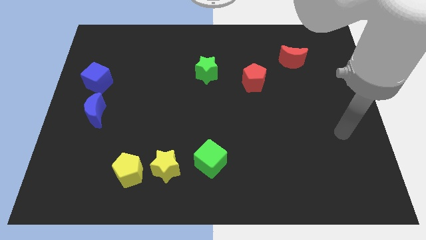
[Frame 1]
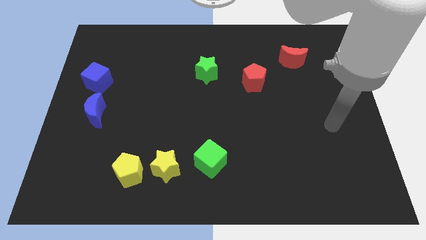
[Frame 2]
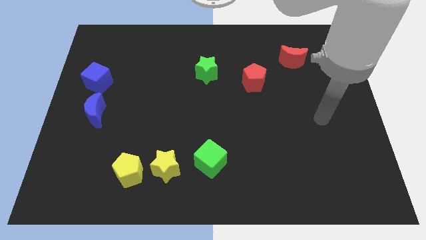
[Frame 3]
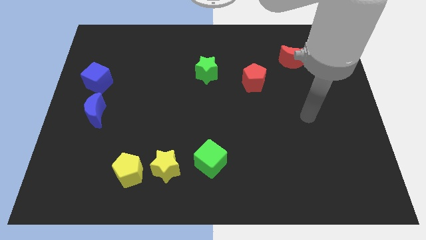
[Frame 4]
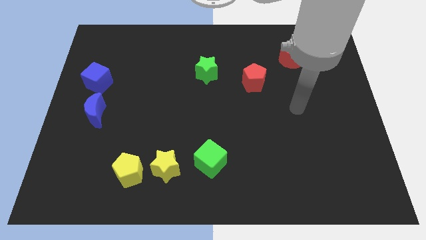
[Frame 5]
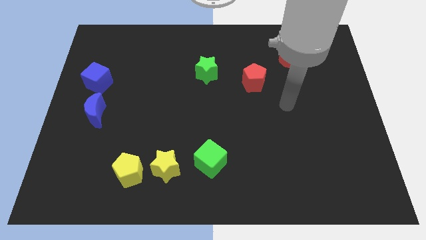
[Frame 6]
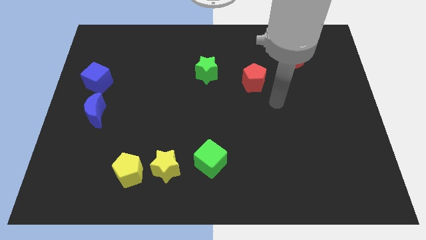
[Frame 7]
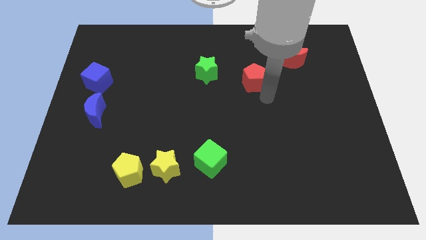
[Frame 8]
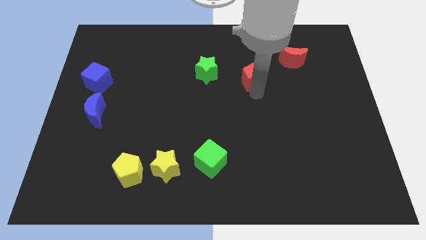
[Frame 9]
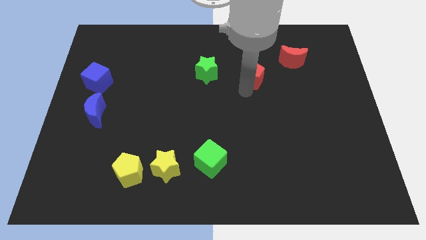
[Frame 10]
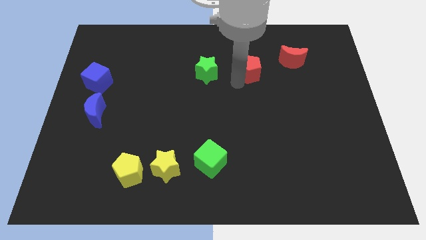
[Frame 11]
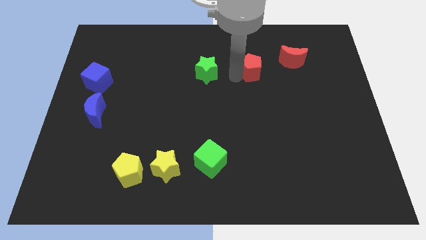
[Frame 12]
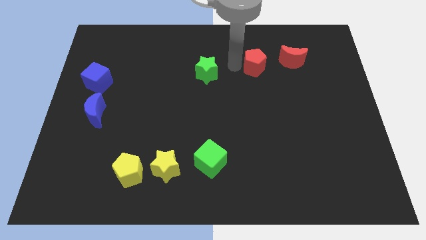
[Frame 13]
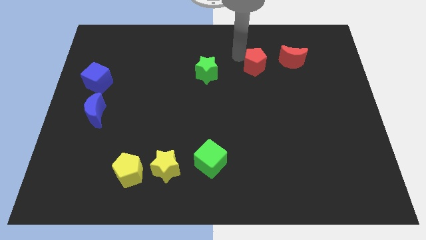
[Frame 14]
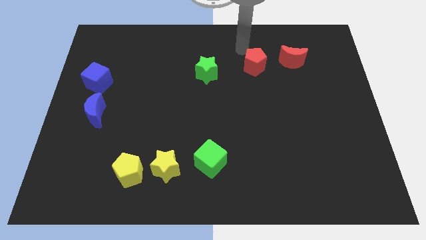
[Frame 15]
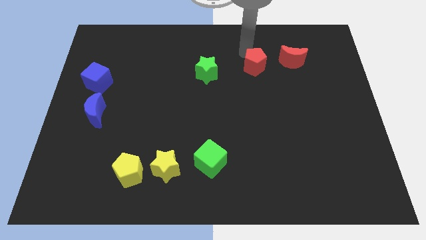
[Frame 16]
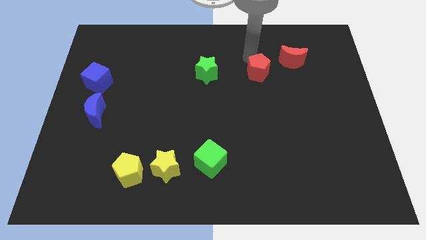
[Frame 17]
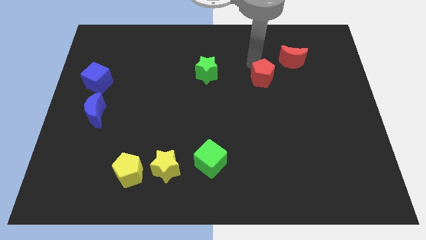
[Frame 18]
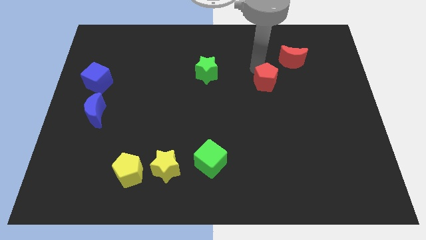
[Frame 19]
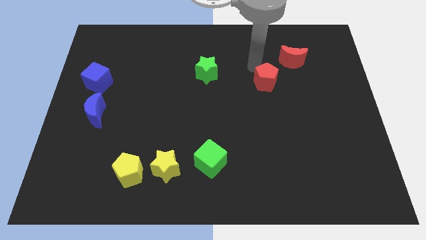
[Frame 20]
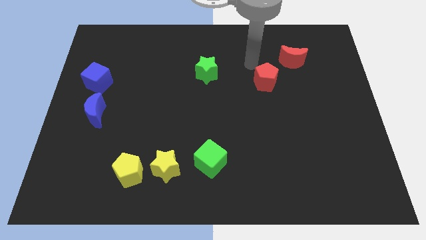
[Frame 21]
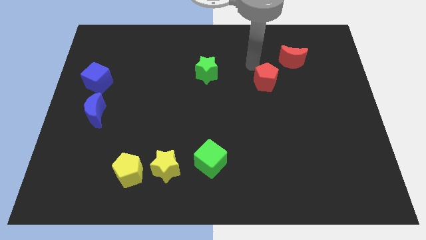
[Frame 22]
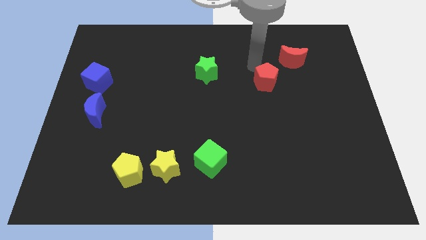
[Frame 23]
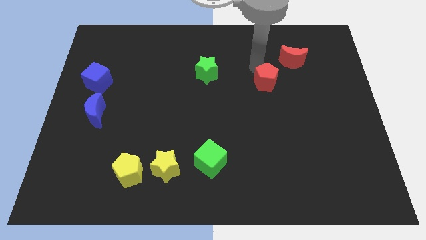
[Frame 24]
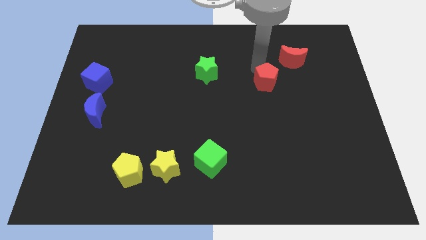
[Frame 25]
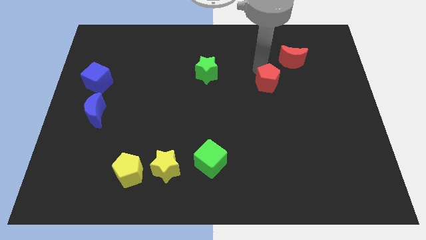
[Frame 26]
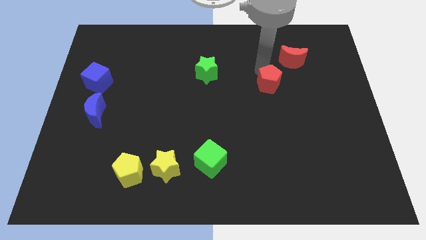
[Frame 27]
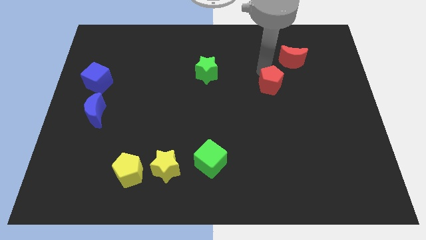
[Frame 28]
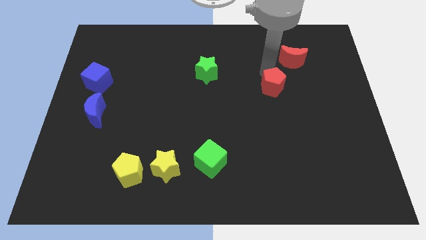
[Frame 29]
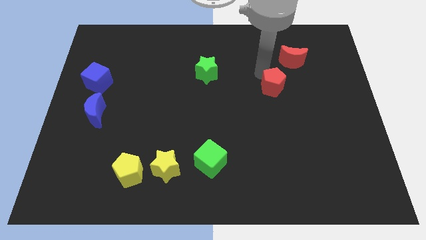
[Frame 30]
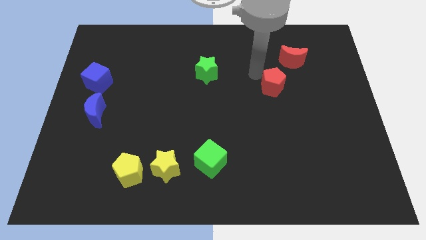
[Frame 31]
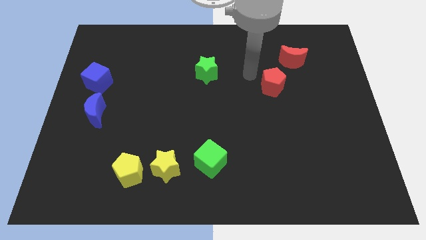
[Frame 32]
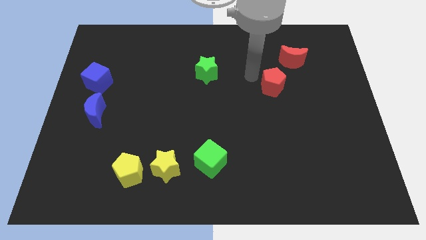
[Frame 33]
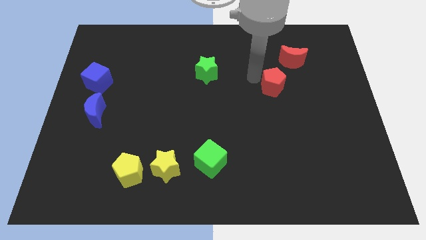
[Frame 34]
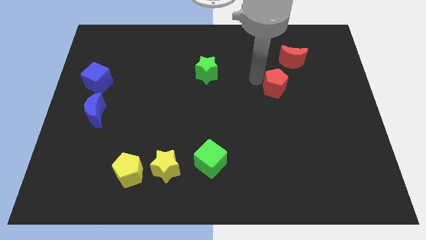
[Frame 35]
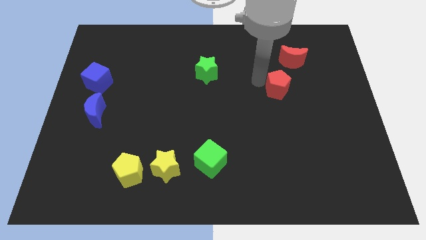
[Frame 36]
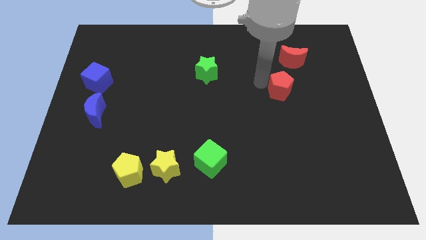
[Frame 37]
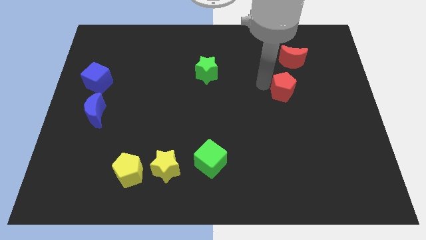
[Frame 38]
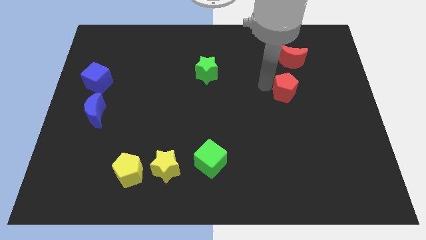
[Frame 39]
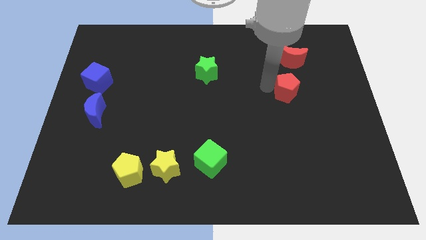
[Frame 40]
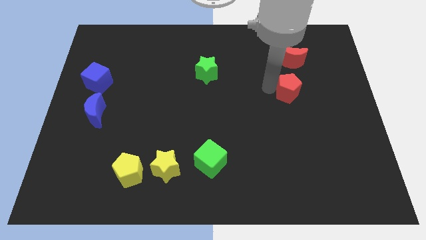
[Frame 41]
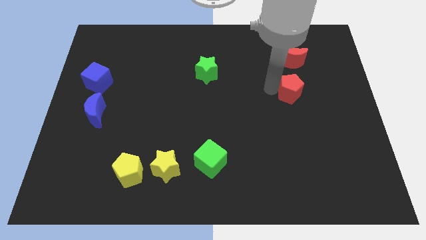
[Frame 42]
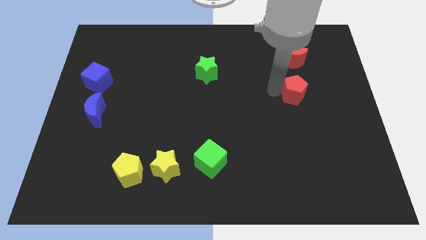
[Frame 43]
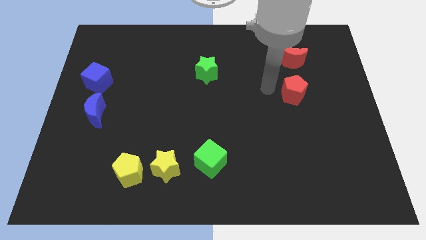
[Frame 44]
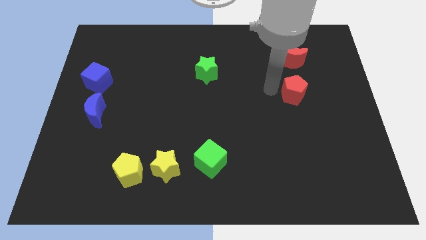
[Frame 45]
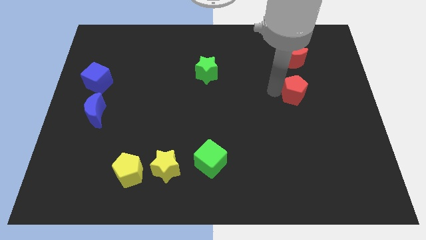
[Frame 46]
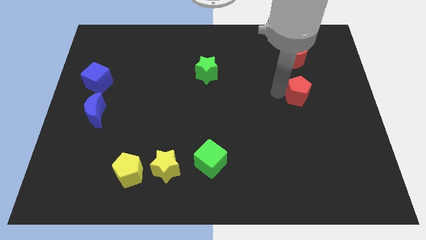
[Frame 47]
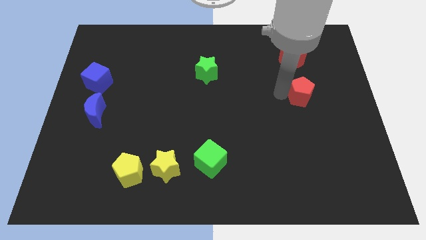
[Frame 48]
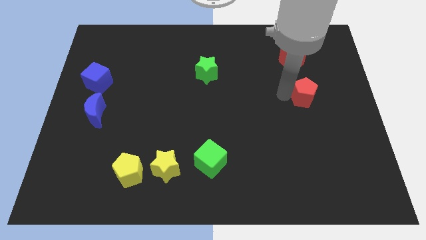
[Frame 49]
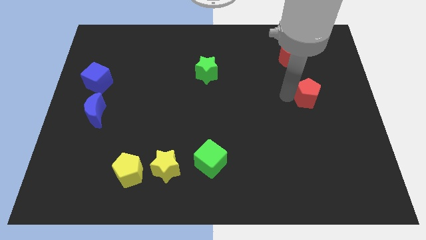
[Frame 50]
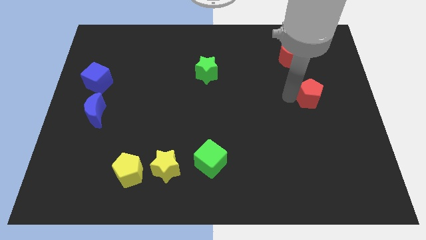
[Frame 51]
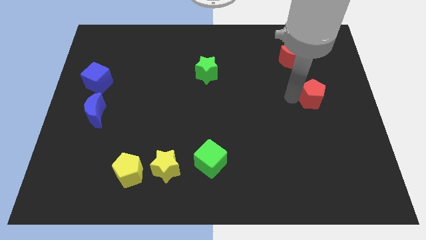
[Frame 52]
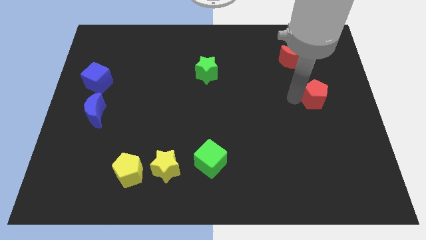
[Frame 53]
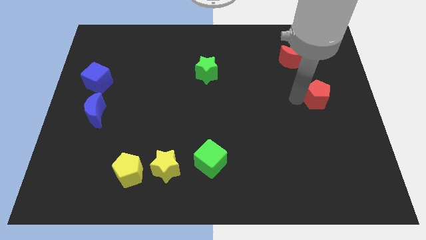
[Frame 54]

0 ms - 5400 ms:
slide the red pentagon to the center right

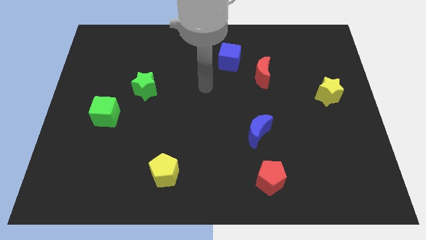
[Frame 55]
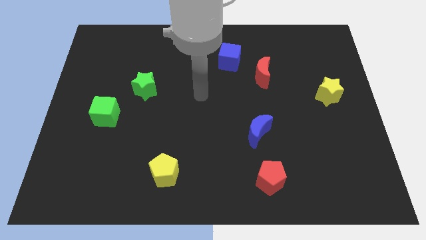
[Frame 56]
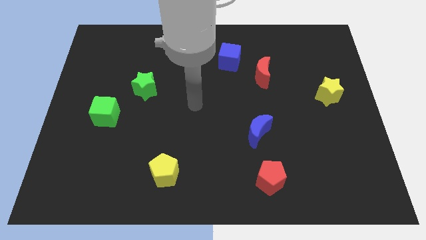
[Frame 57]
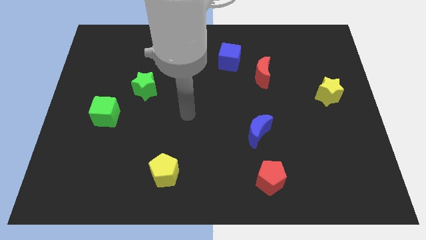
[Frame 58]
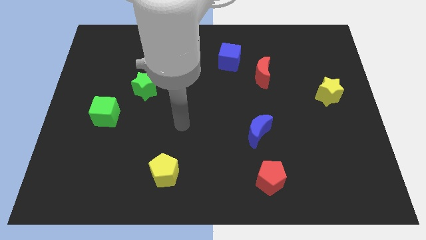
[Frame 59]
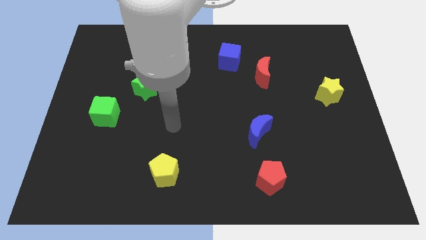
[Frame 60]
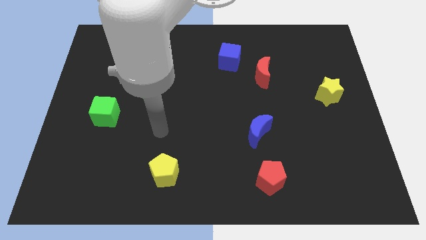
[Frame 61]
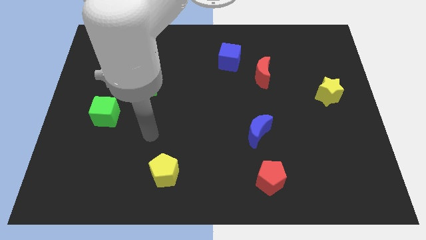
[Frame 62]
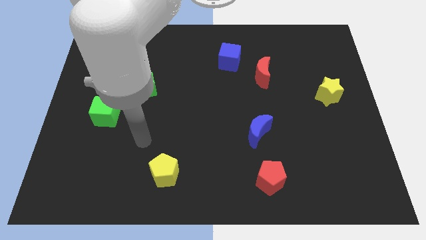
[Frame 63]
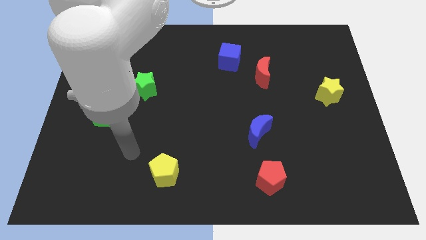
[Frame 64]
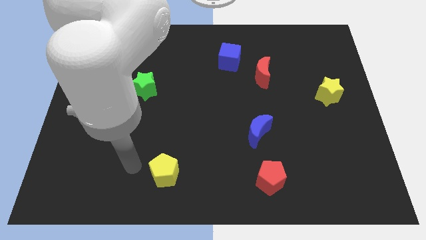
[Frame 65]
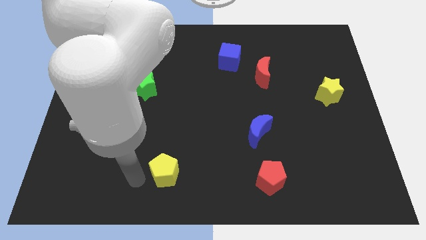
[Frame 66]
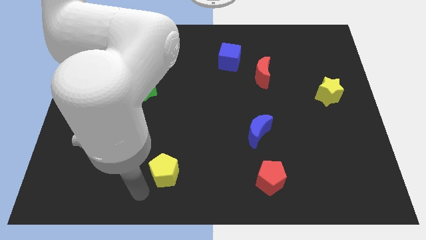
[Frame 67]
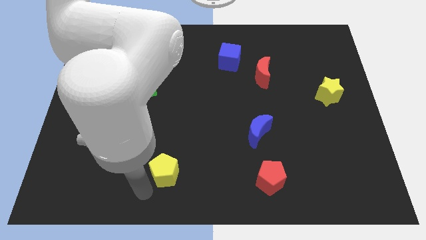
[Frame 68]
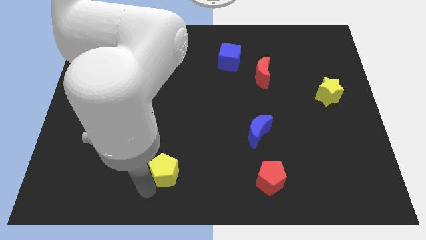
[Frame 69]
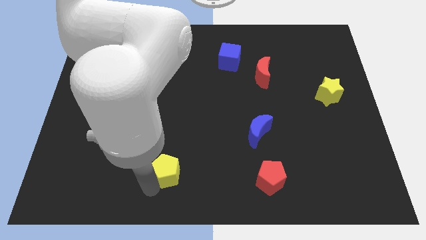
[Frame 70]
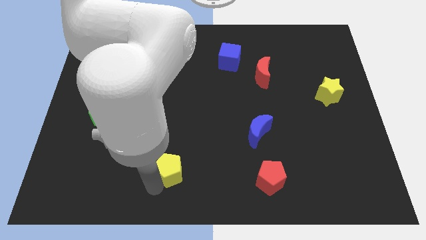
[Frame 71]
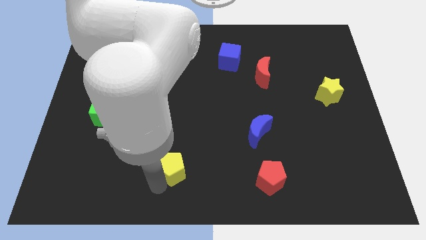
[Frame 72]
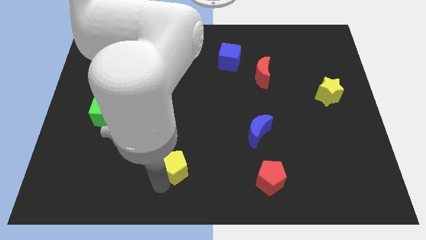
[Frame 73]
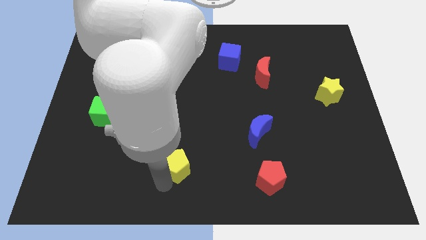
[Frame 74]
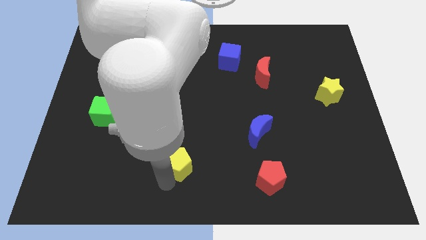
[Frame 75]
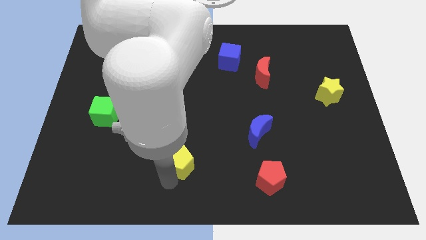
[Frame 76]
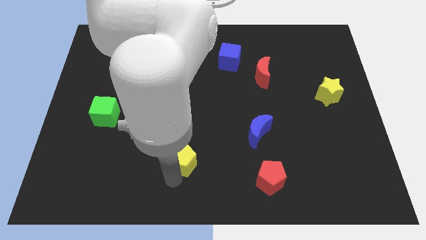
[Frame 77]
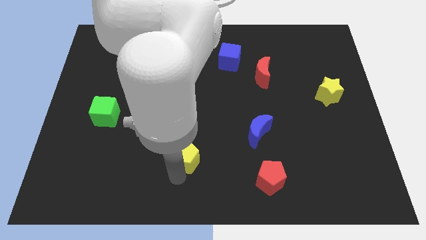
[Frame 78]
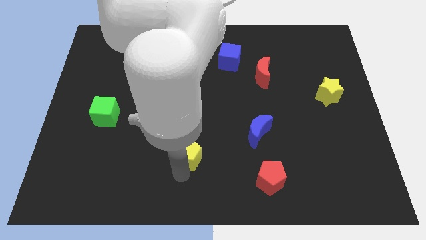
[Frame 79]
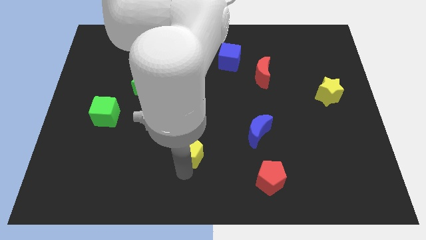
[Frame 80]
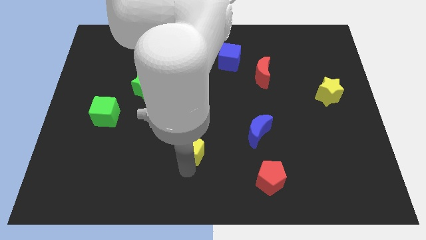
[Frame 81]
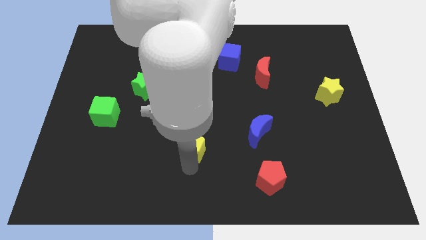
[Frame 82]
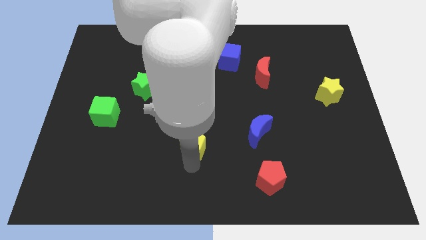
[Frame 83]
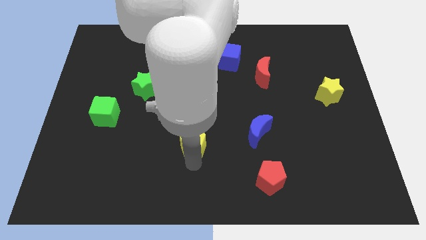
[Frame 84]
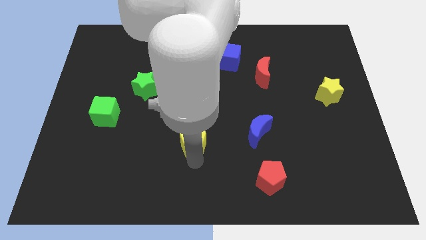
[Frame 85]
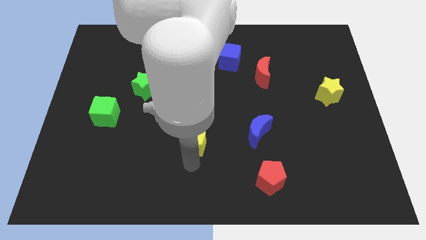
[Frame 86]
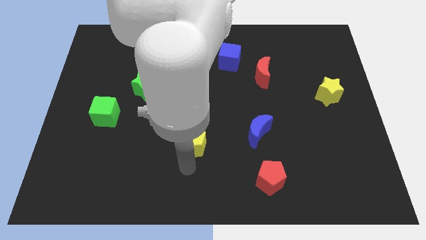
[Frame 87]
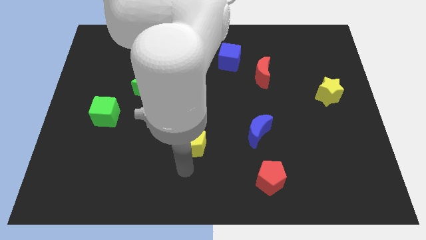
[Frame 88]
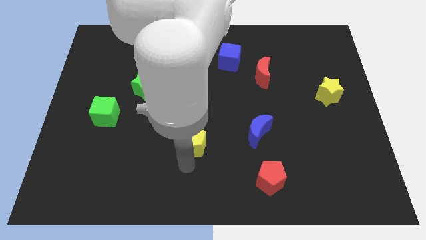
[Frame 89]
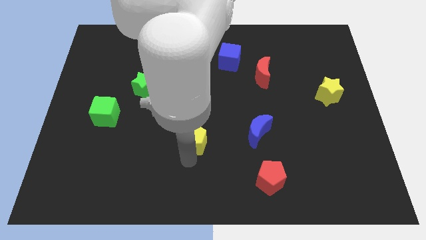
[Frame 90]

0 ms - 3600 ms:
put the yellow pentagon to the middle
